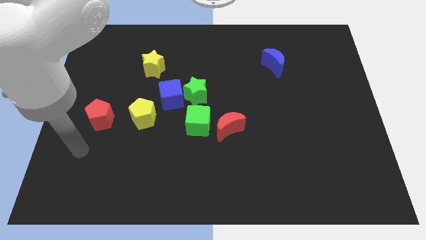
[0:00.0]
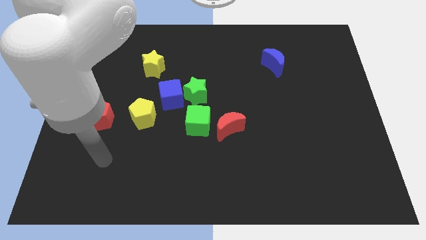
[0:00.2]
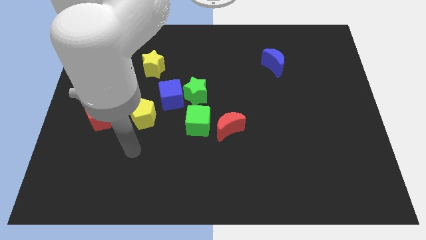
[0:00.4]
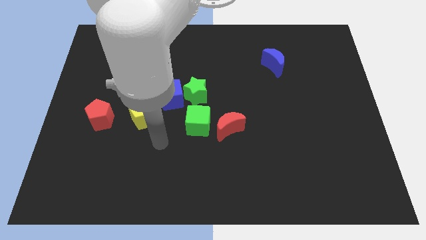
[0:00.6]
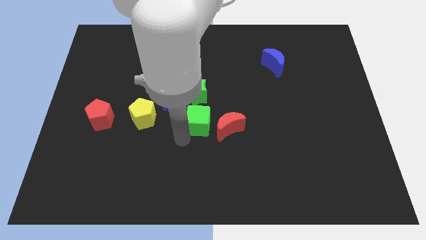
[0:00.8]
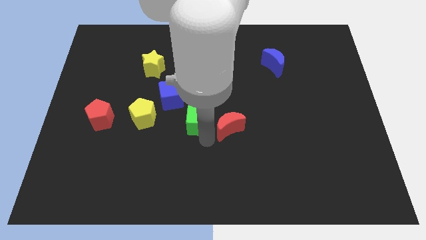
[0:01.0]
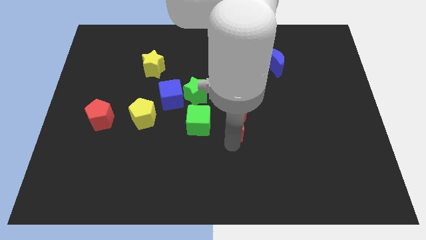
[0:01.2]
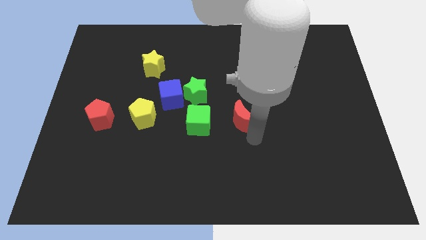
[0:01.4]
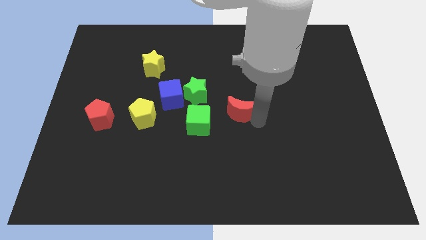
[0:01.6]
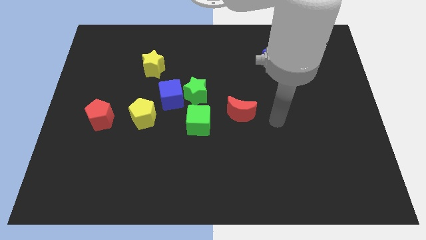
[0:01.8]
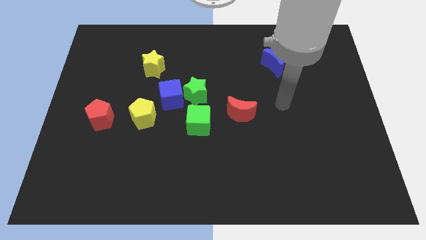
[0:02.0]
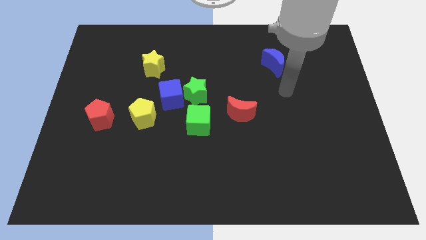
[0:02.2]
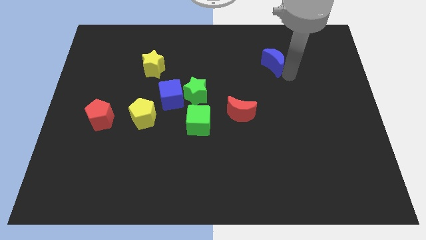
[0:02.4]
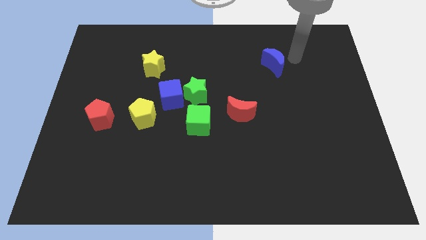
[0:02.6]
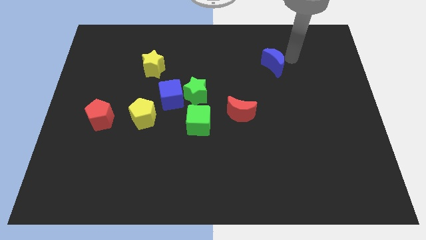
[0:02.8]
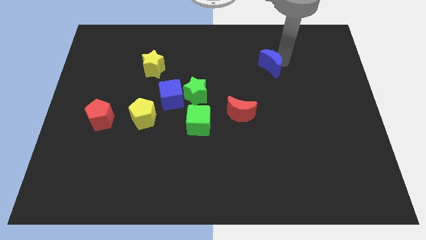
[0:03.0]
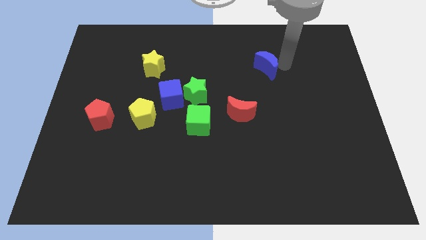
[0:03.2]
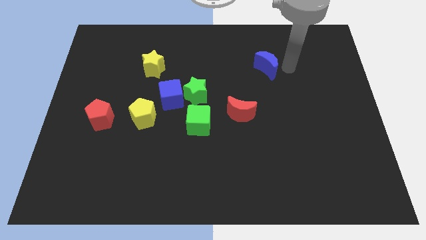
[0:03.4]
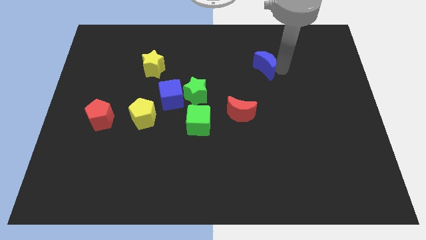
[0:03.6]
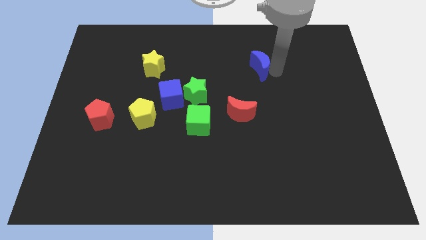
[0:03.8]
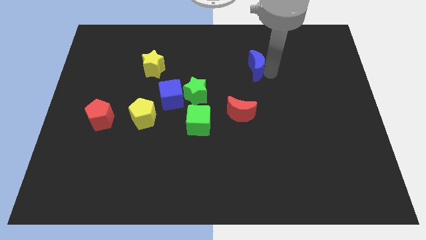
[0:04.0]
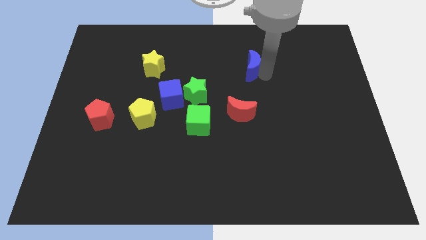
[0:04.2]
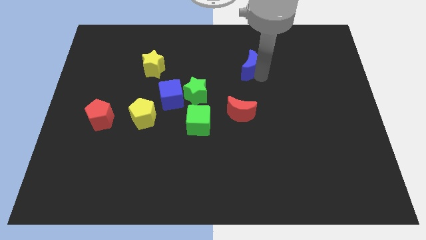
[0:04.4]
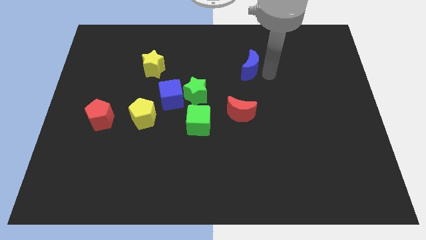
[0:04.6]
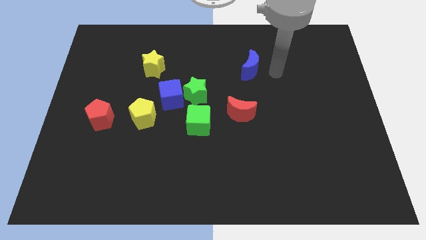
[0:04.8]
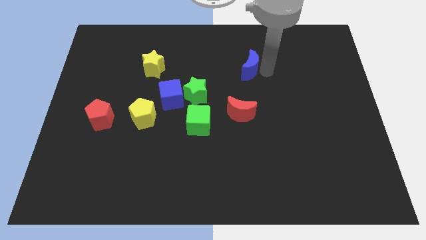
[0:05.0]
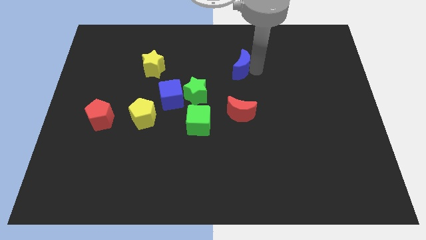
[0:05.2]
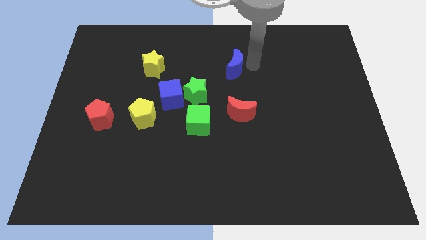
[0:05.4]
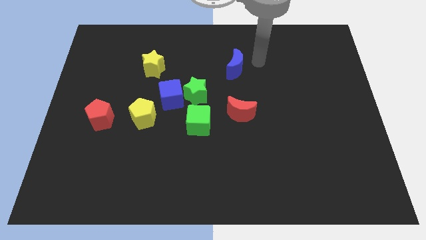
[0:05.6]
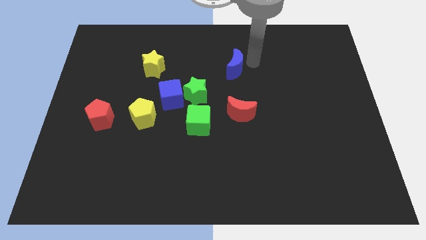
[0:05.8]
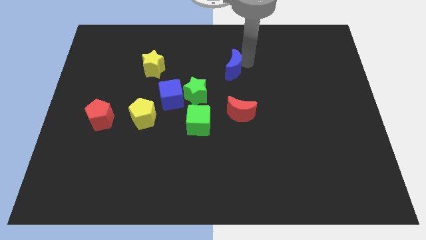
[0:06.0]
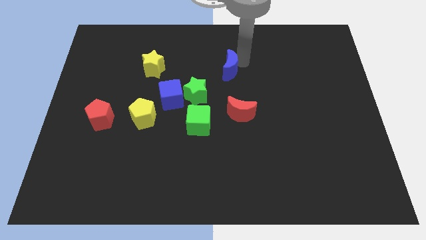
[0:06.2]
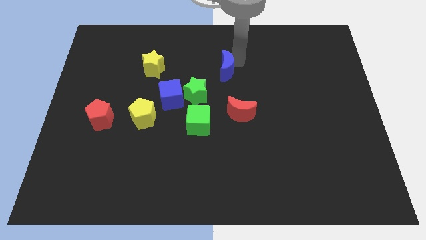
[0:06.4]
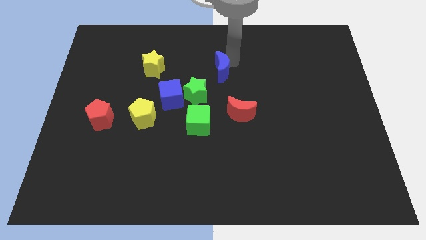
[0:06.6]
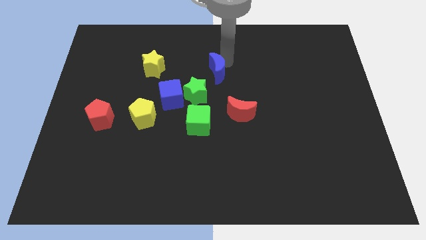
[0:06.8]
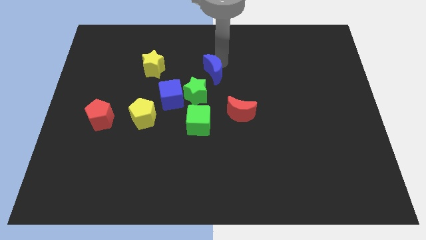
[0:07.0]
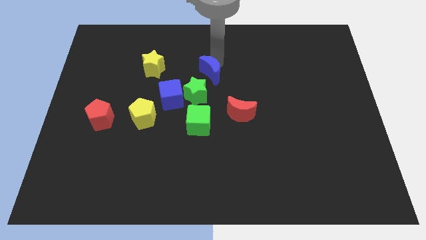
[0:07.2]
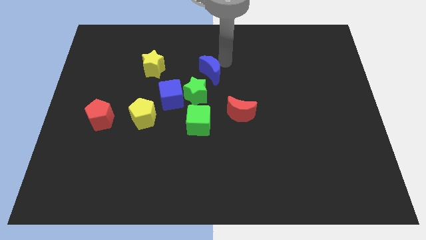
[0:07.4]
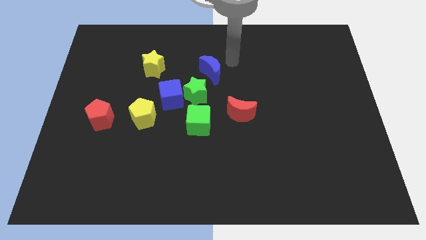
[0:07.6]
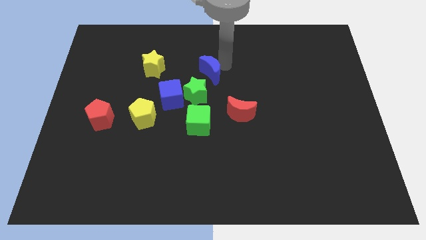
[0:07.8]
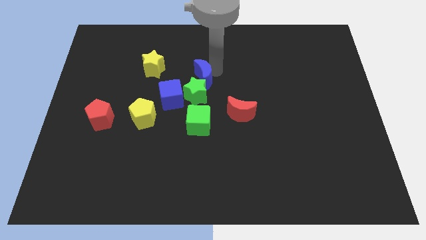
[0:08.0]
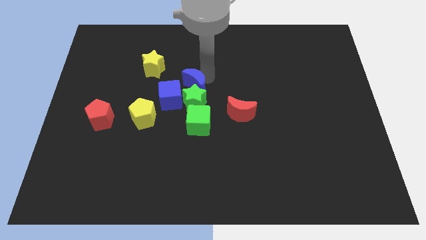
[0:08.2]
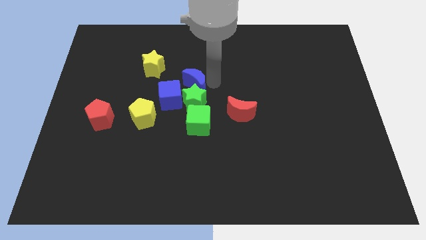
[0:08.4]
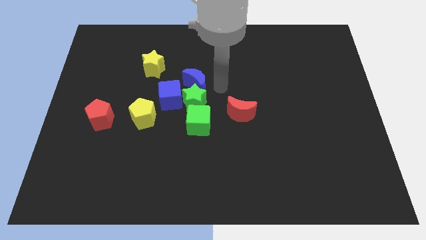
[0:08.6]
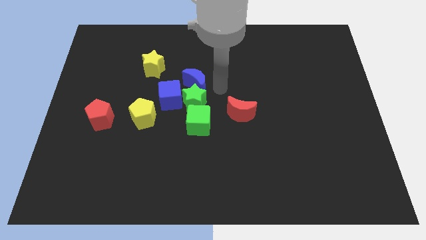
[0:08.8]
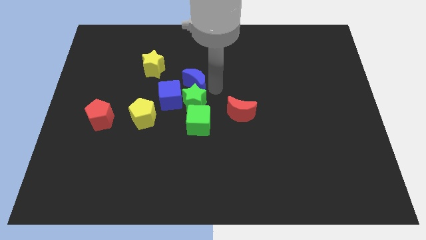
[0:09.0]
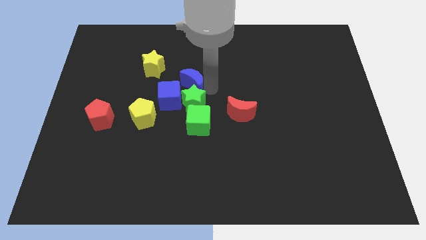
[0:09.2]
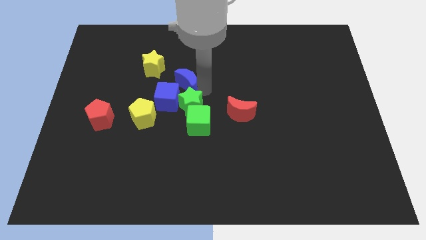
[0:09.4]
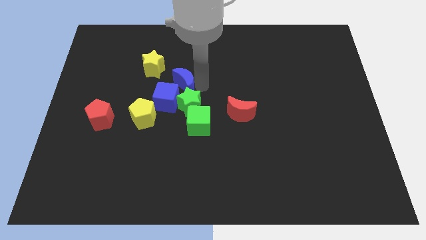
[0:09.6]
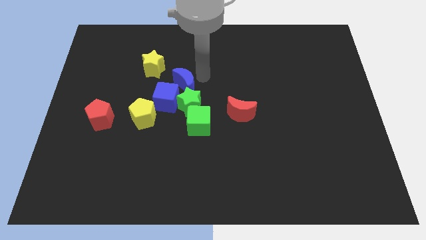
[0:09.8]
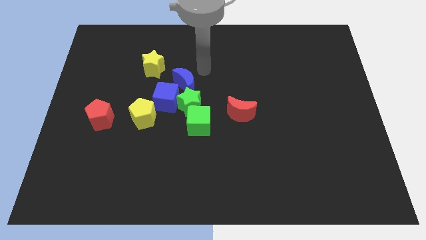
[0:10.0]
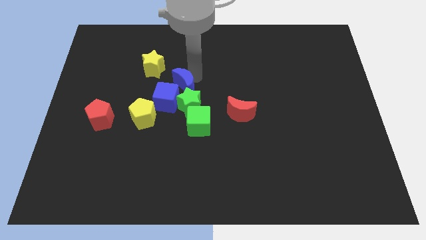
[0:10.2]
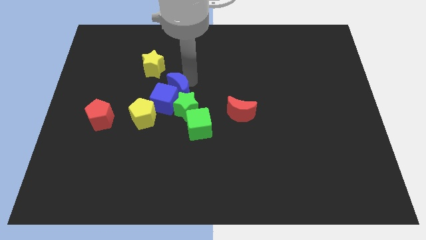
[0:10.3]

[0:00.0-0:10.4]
slide the blue moon to the blue cube

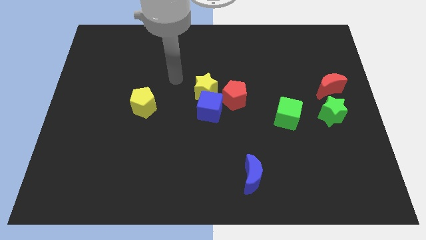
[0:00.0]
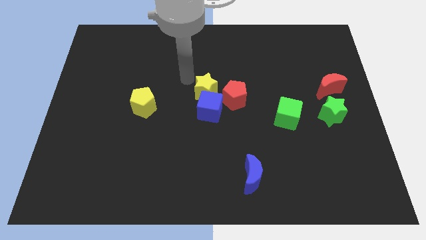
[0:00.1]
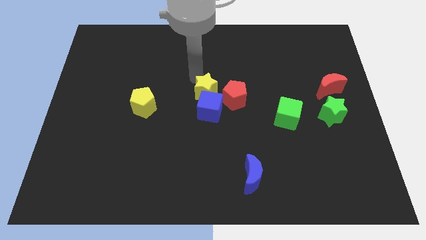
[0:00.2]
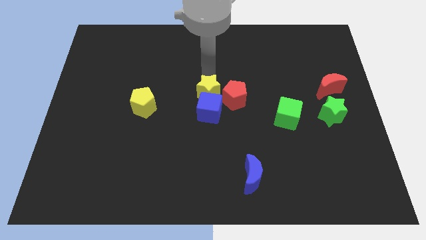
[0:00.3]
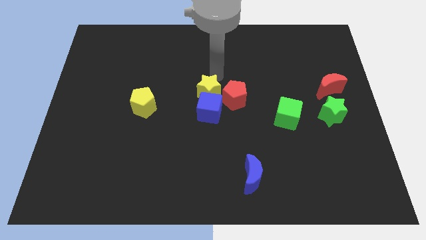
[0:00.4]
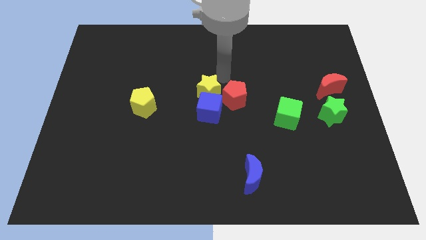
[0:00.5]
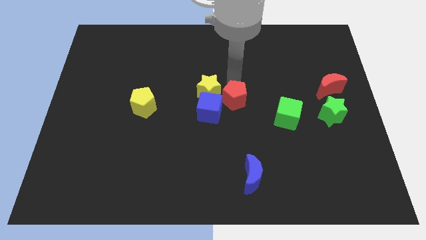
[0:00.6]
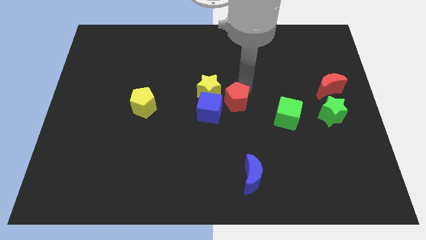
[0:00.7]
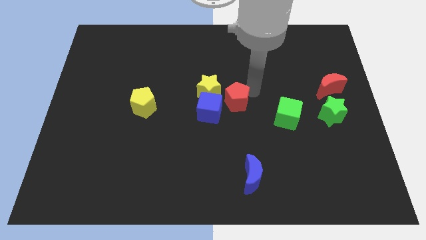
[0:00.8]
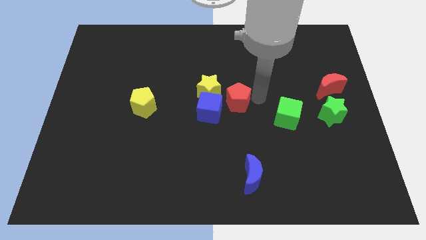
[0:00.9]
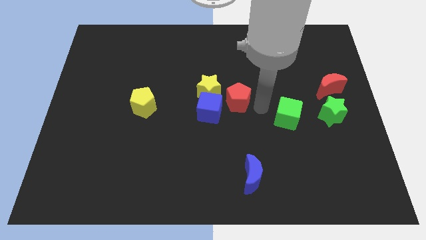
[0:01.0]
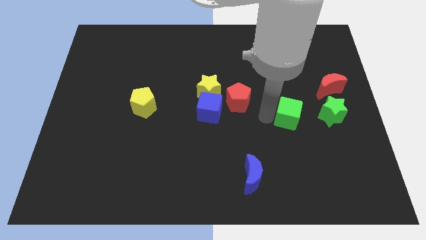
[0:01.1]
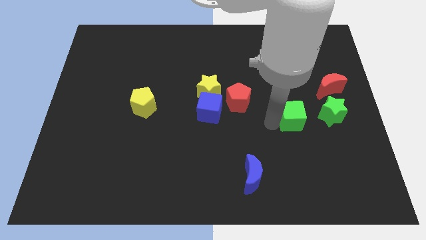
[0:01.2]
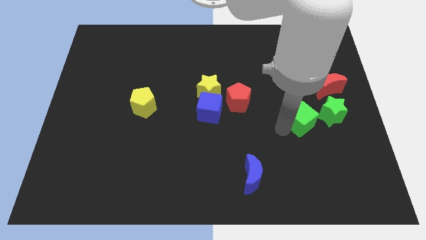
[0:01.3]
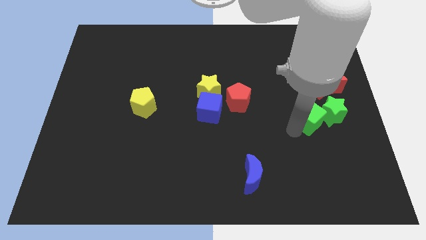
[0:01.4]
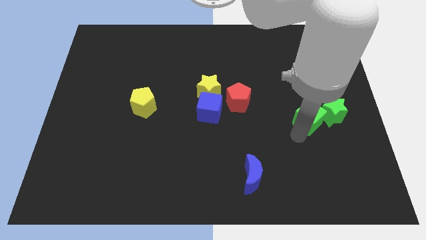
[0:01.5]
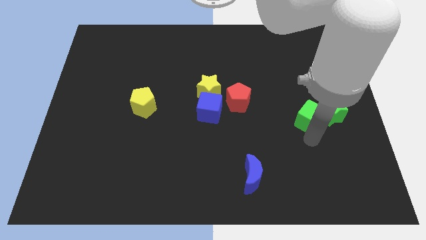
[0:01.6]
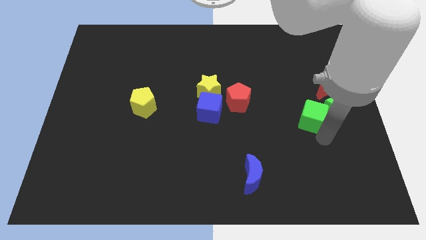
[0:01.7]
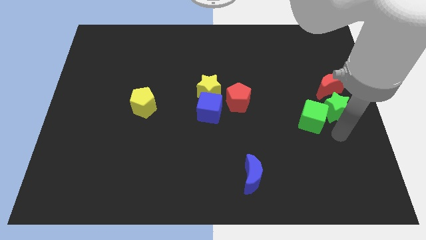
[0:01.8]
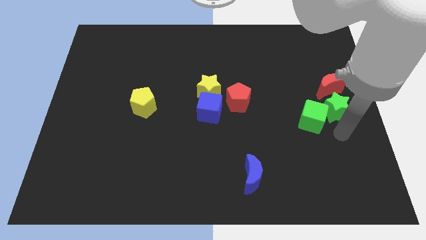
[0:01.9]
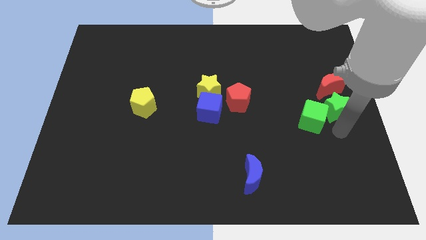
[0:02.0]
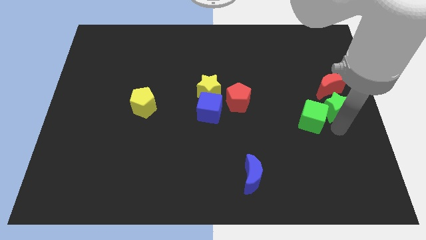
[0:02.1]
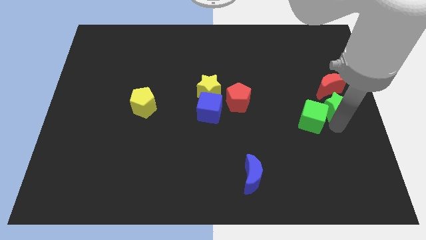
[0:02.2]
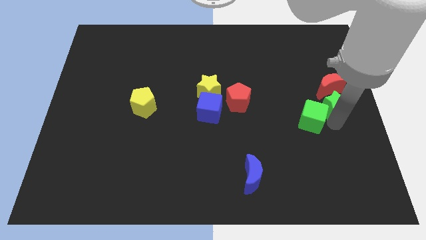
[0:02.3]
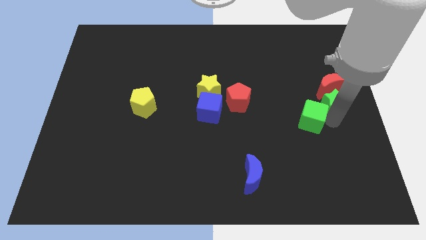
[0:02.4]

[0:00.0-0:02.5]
move the green star close to the red moon
